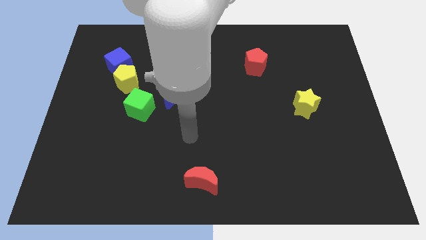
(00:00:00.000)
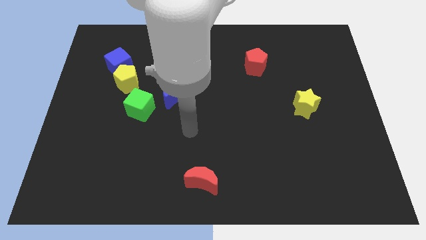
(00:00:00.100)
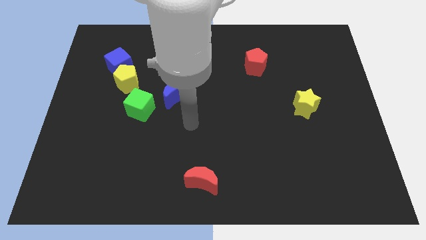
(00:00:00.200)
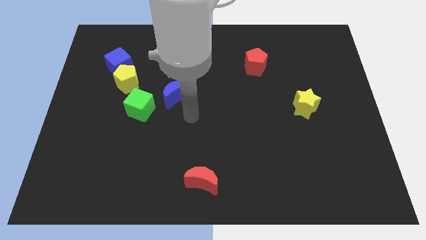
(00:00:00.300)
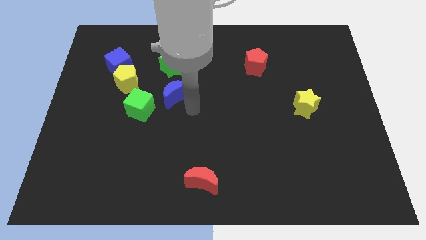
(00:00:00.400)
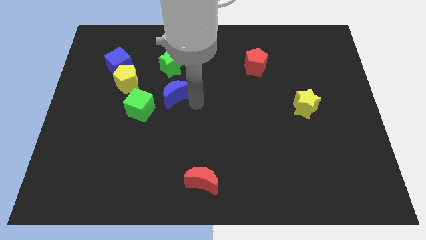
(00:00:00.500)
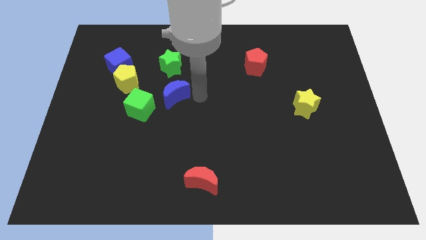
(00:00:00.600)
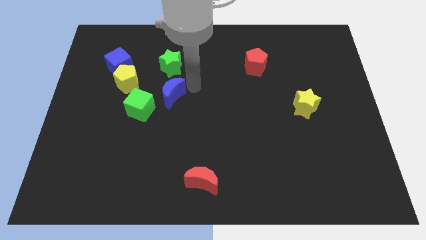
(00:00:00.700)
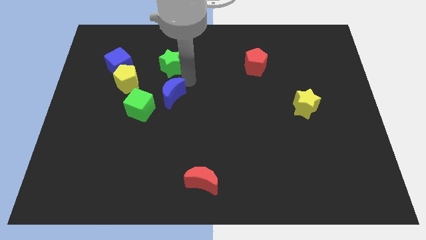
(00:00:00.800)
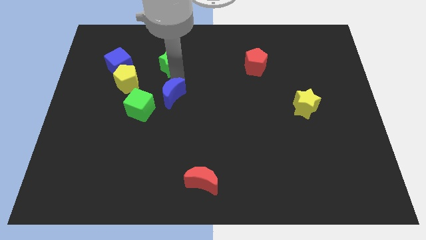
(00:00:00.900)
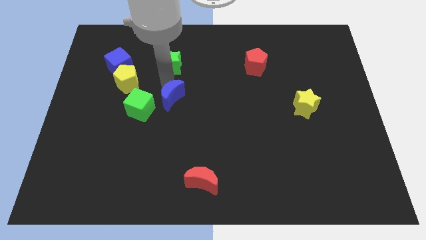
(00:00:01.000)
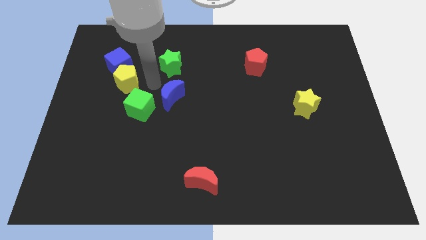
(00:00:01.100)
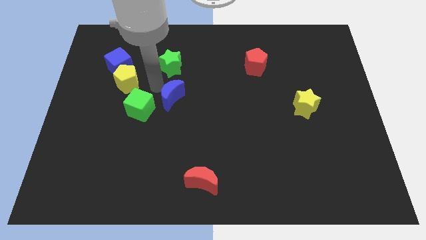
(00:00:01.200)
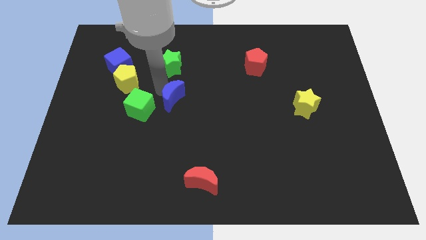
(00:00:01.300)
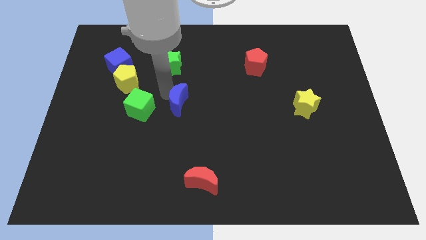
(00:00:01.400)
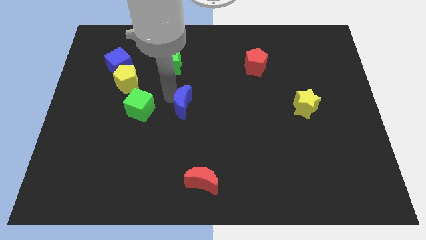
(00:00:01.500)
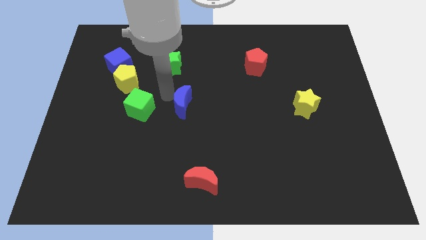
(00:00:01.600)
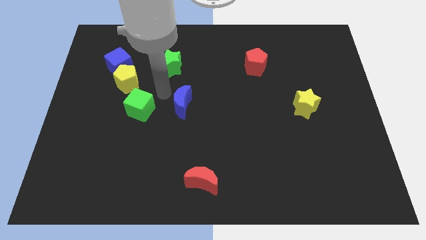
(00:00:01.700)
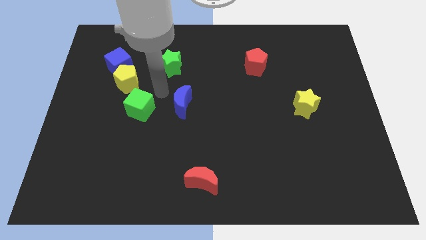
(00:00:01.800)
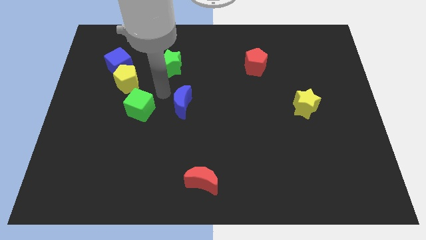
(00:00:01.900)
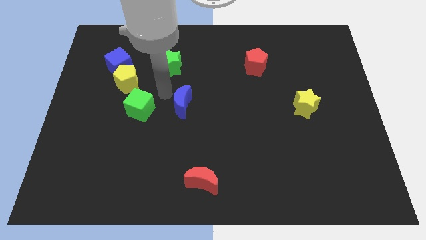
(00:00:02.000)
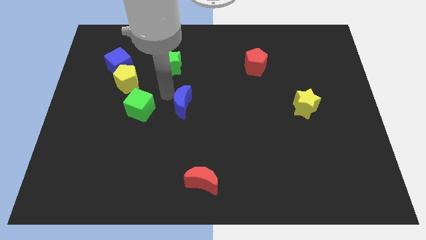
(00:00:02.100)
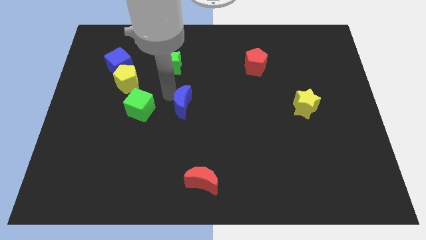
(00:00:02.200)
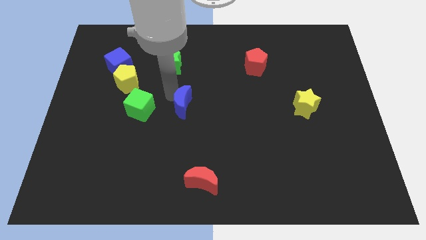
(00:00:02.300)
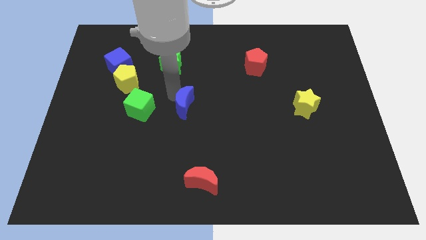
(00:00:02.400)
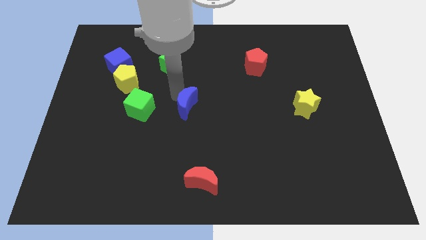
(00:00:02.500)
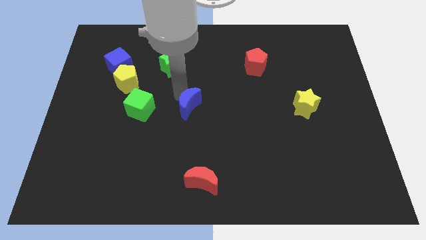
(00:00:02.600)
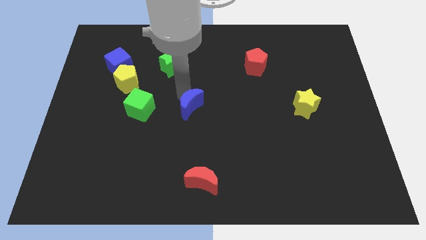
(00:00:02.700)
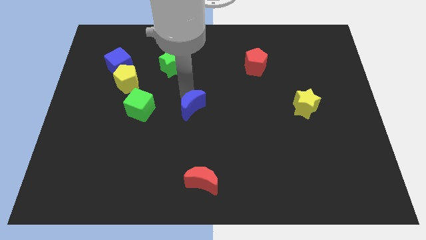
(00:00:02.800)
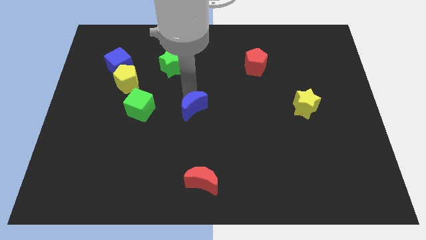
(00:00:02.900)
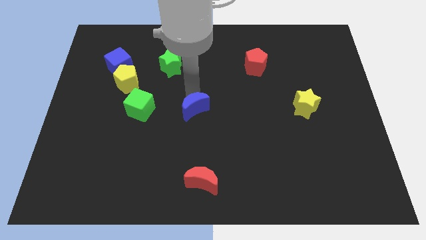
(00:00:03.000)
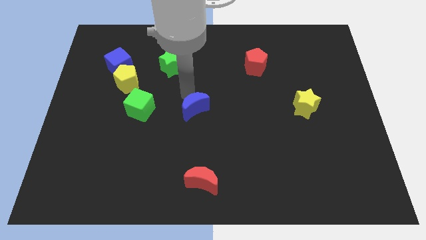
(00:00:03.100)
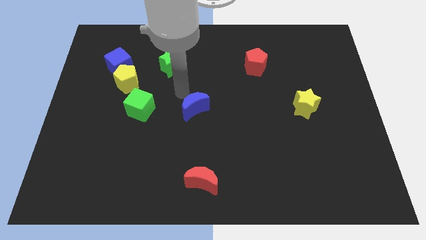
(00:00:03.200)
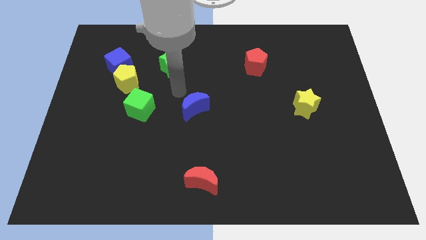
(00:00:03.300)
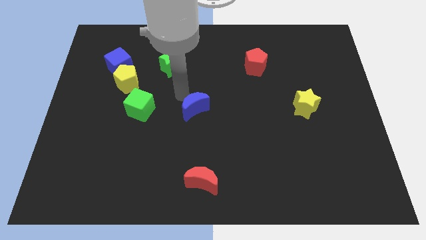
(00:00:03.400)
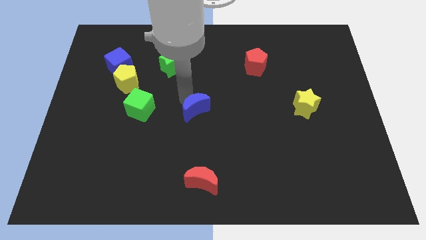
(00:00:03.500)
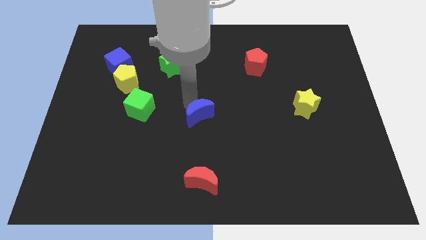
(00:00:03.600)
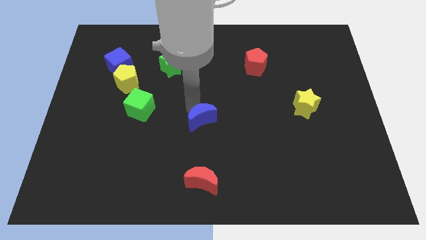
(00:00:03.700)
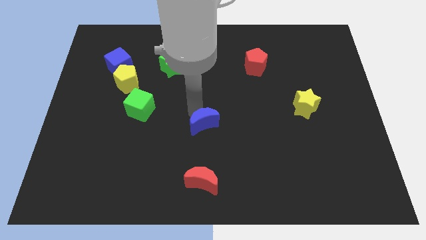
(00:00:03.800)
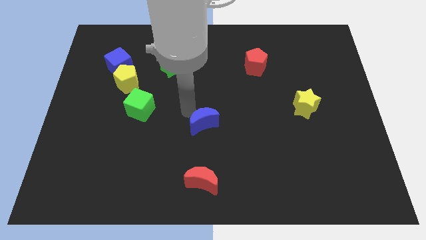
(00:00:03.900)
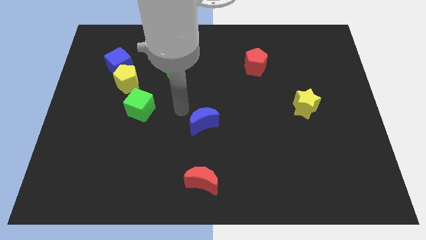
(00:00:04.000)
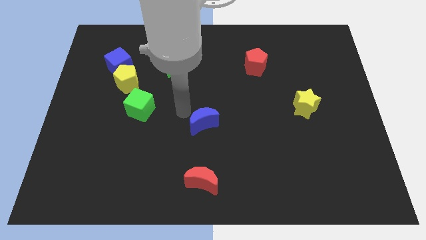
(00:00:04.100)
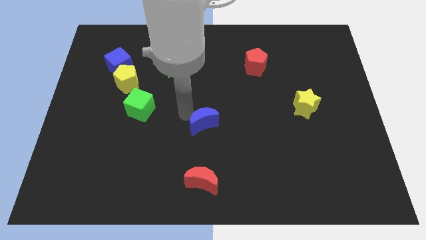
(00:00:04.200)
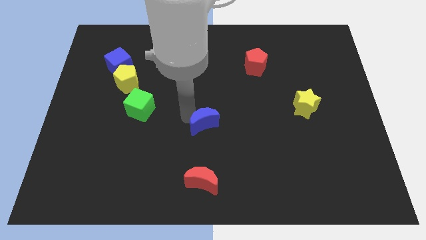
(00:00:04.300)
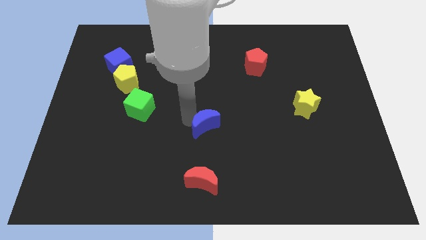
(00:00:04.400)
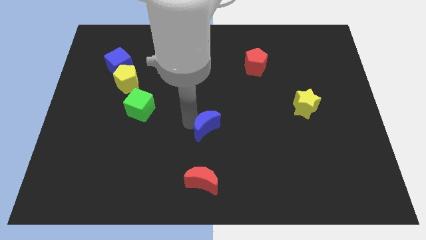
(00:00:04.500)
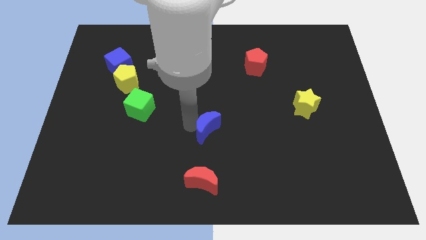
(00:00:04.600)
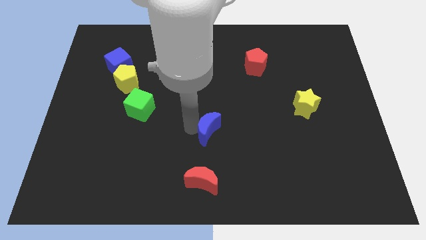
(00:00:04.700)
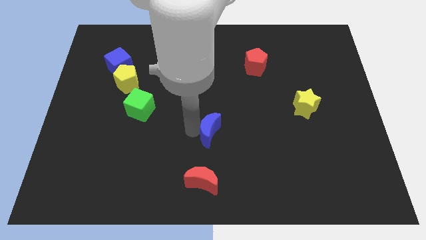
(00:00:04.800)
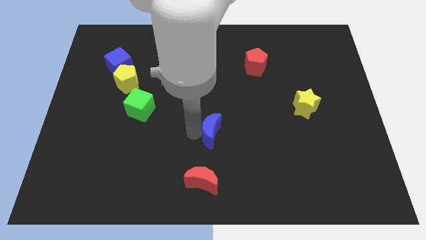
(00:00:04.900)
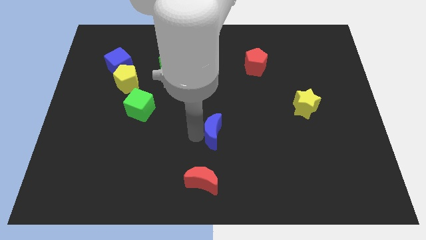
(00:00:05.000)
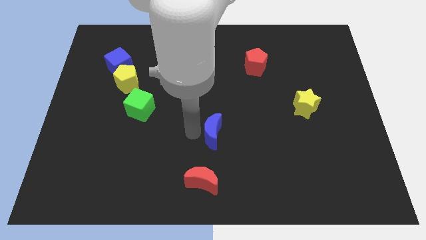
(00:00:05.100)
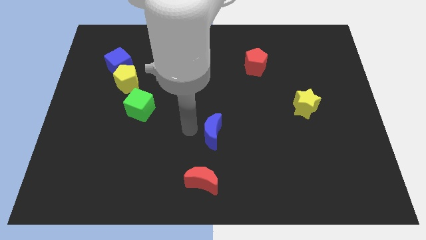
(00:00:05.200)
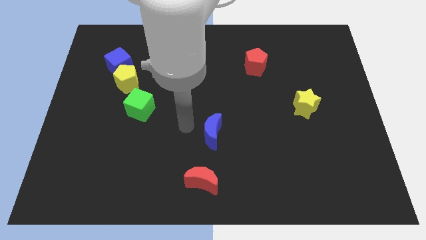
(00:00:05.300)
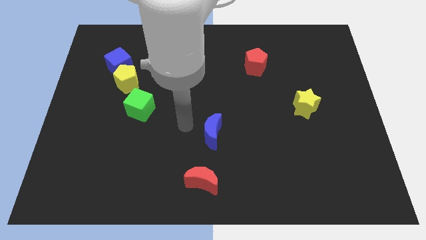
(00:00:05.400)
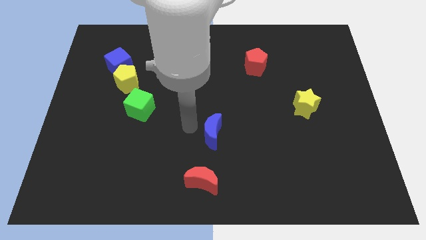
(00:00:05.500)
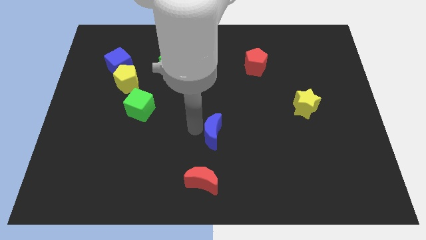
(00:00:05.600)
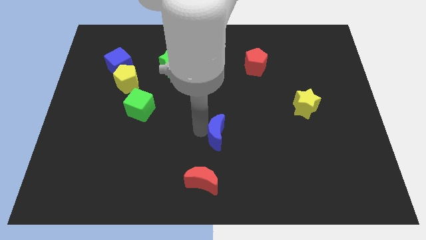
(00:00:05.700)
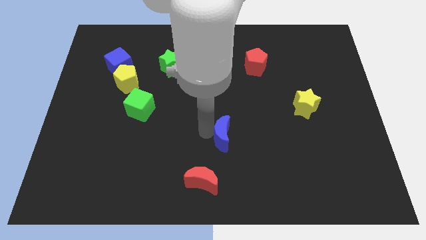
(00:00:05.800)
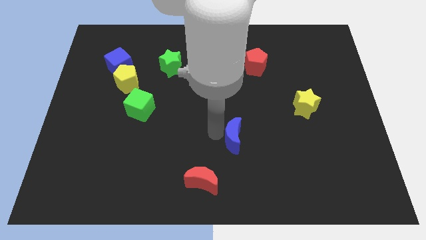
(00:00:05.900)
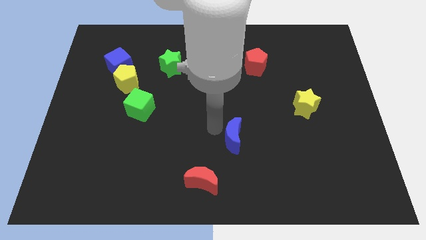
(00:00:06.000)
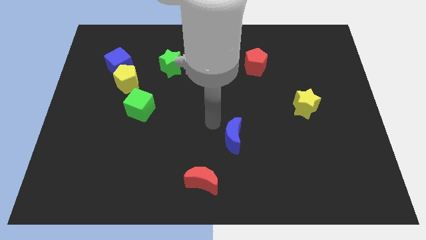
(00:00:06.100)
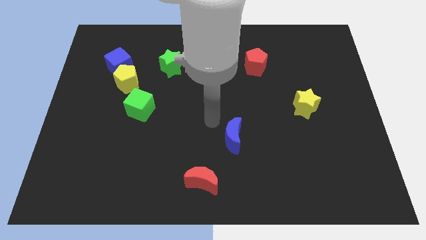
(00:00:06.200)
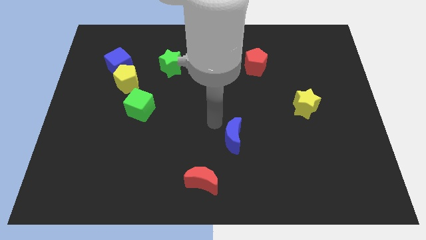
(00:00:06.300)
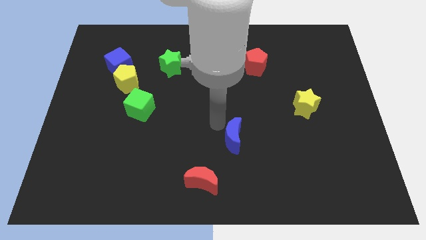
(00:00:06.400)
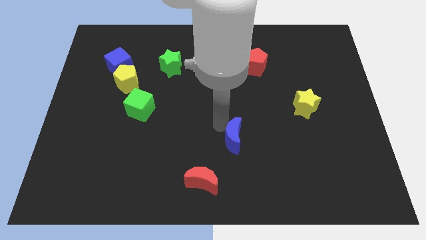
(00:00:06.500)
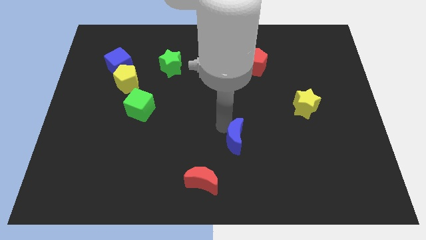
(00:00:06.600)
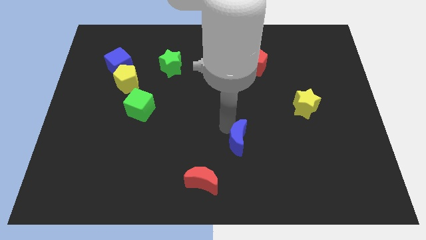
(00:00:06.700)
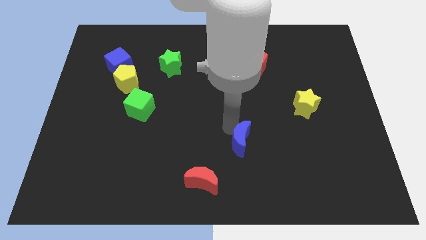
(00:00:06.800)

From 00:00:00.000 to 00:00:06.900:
slide the blue moon diagonally downwards and right

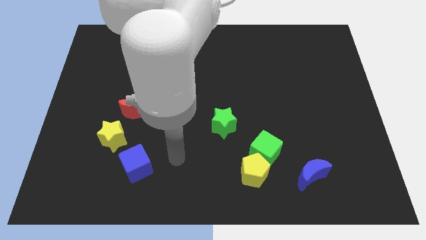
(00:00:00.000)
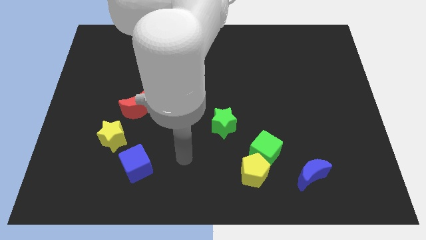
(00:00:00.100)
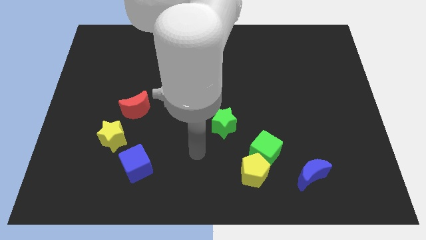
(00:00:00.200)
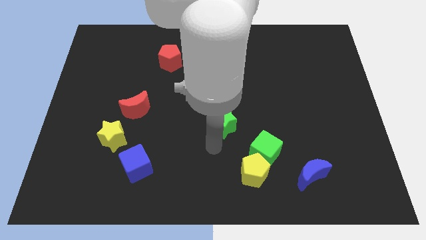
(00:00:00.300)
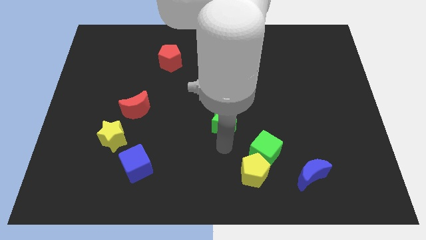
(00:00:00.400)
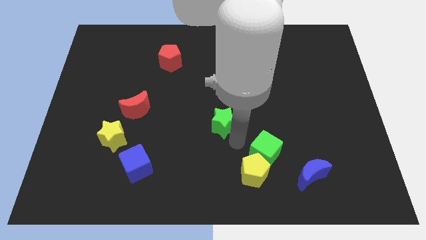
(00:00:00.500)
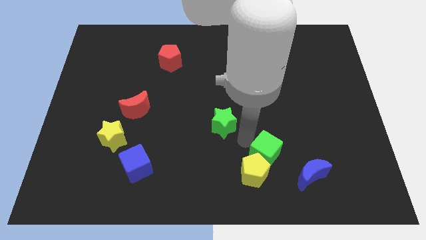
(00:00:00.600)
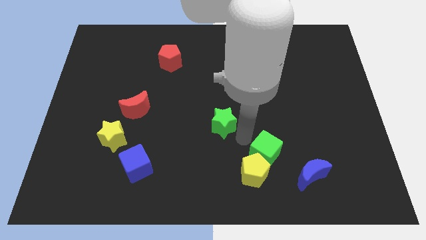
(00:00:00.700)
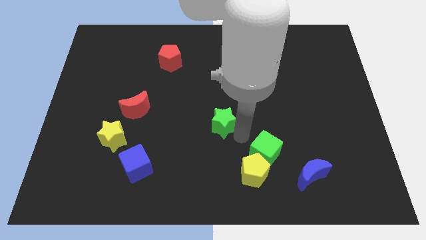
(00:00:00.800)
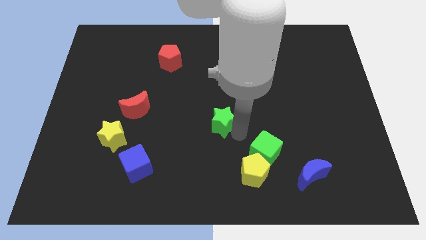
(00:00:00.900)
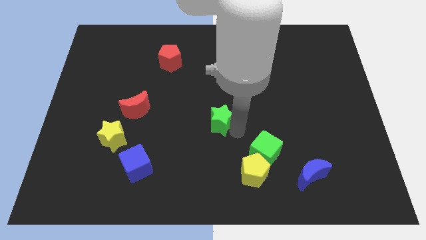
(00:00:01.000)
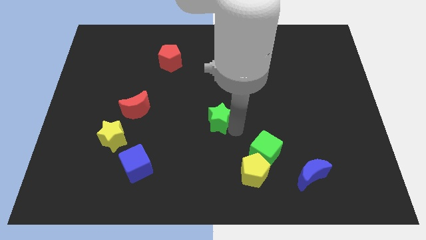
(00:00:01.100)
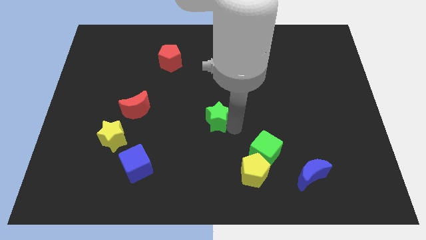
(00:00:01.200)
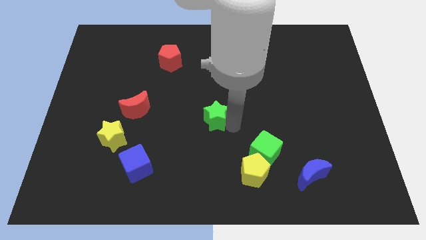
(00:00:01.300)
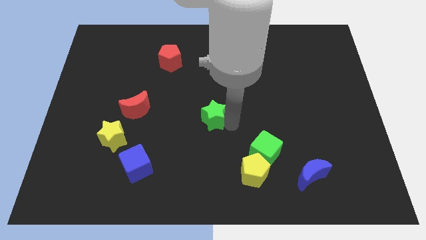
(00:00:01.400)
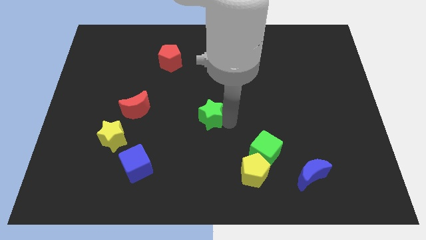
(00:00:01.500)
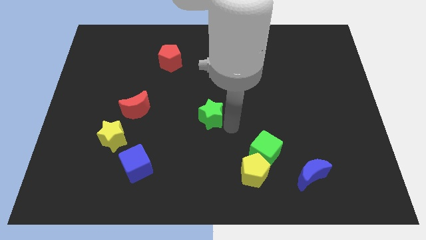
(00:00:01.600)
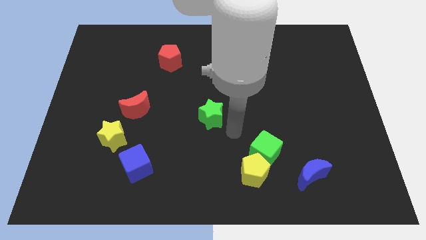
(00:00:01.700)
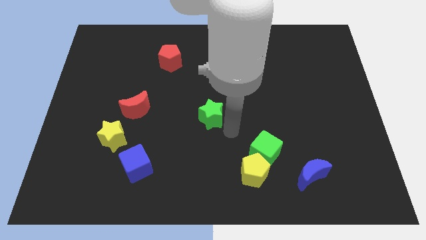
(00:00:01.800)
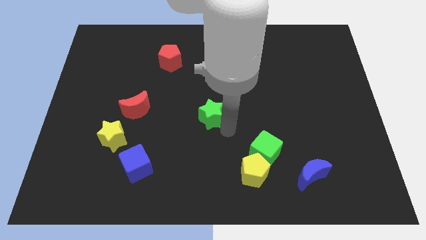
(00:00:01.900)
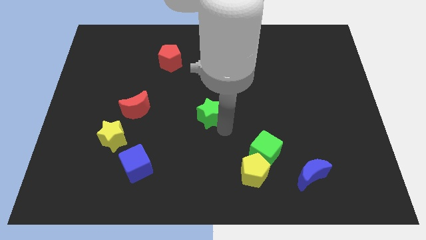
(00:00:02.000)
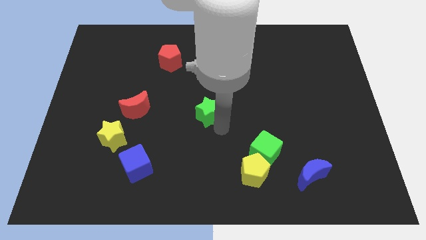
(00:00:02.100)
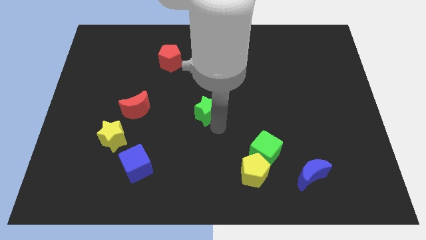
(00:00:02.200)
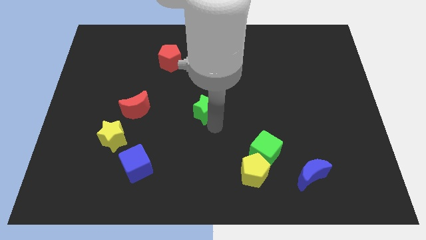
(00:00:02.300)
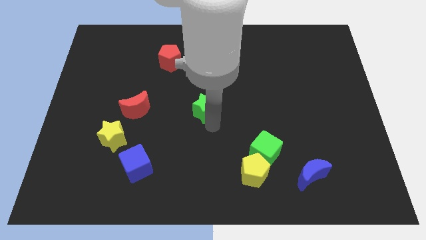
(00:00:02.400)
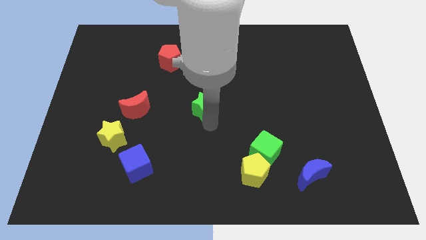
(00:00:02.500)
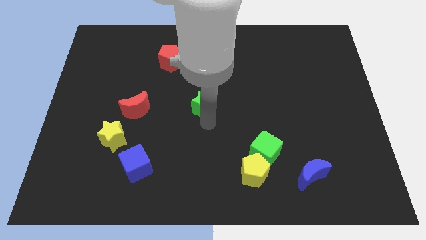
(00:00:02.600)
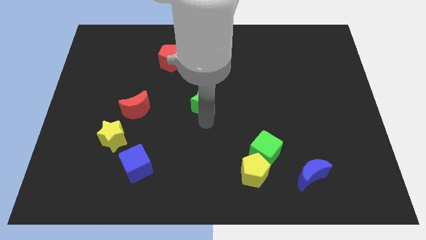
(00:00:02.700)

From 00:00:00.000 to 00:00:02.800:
push the green star diagonally up and to the left slightly
